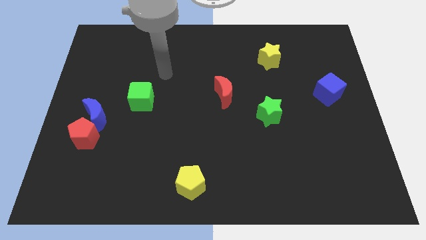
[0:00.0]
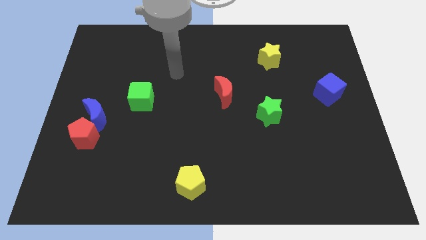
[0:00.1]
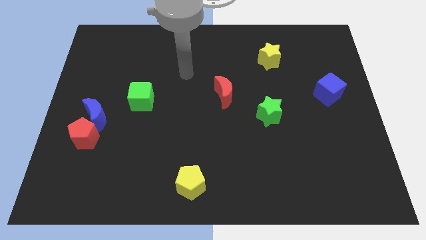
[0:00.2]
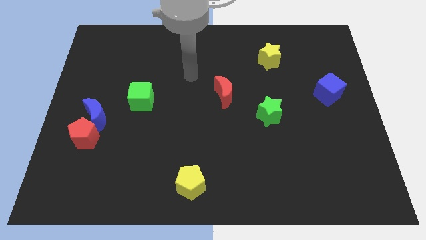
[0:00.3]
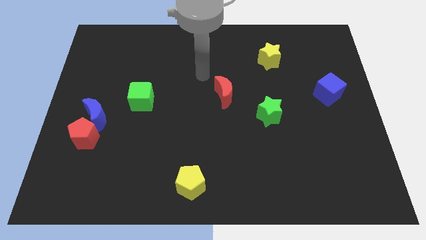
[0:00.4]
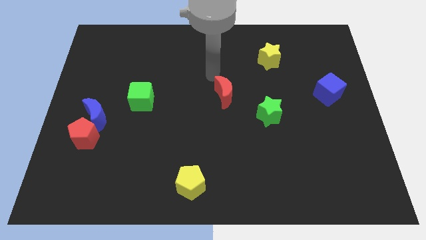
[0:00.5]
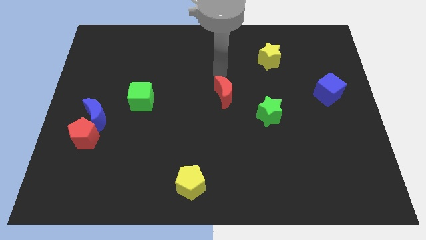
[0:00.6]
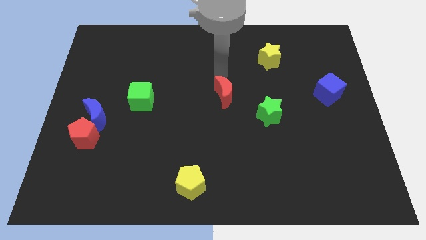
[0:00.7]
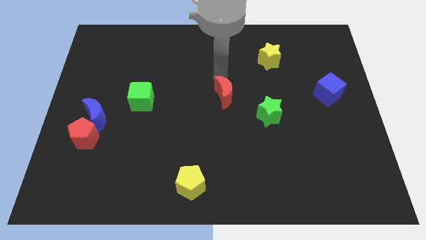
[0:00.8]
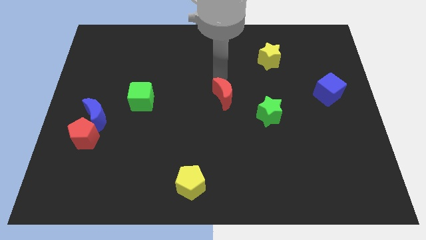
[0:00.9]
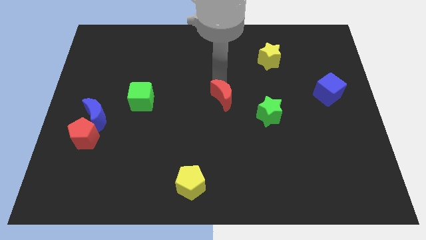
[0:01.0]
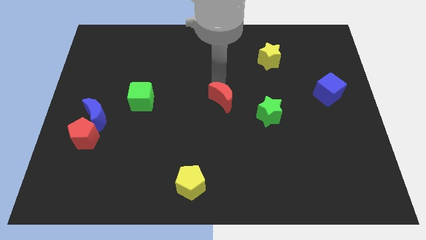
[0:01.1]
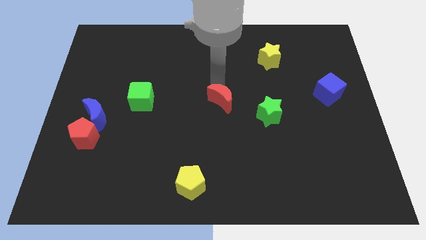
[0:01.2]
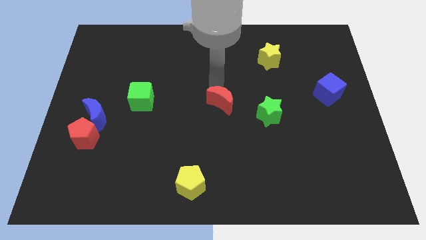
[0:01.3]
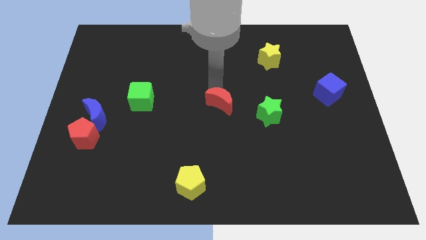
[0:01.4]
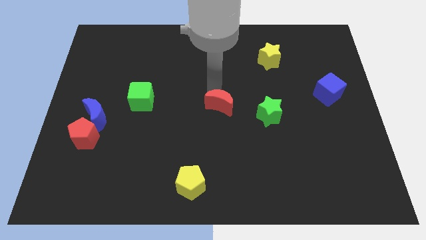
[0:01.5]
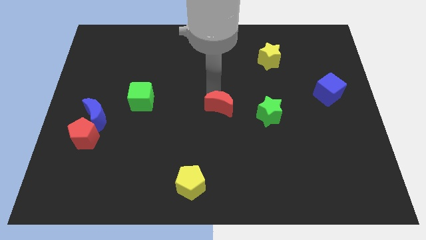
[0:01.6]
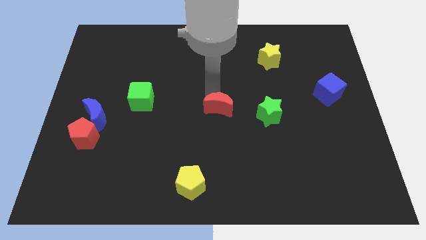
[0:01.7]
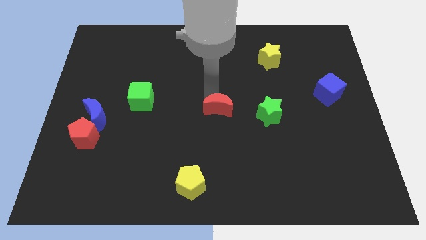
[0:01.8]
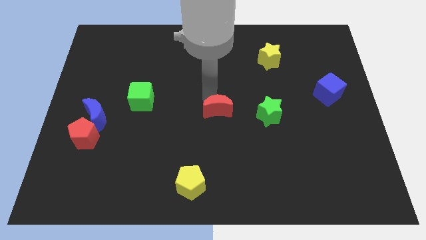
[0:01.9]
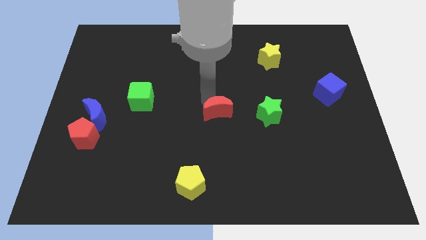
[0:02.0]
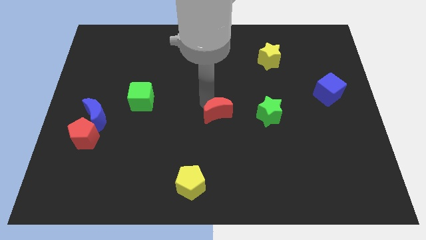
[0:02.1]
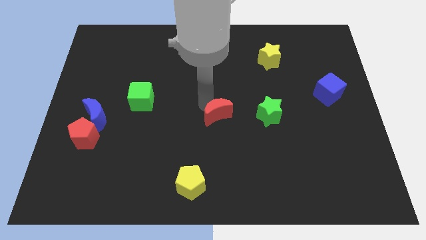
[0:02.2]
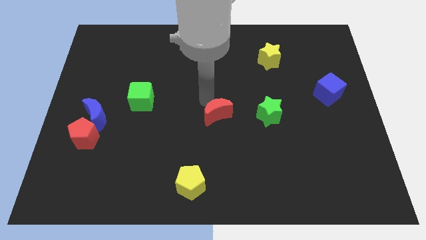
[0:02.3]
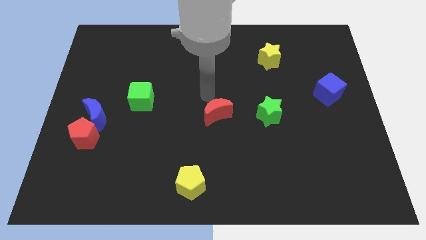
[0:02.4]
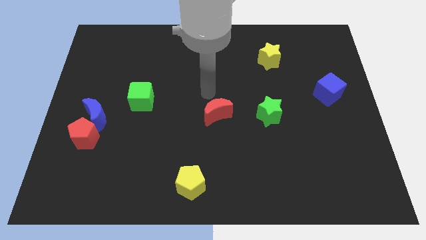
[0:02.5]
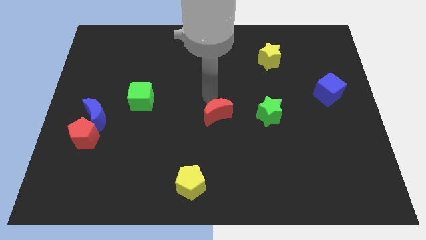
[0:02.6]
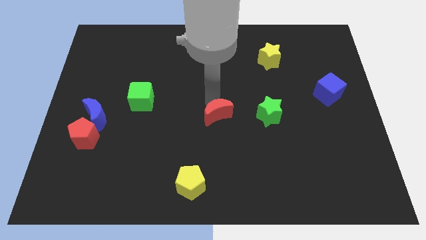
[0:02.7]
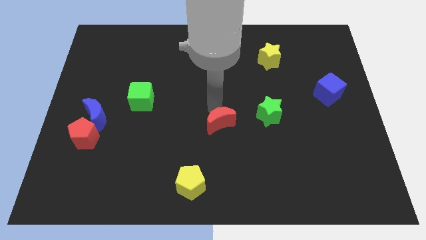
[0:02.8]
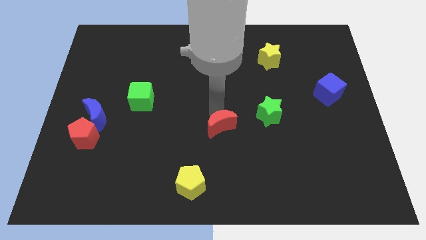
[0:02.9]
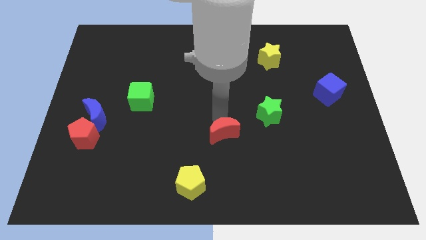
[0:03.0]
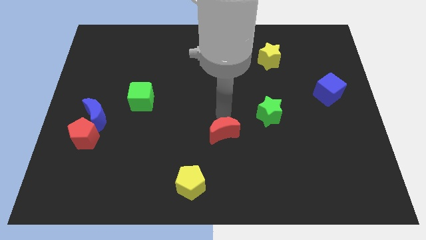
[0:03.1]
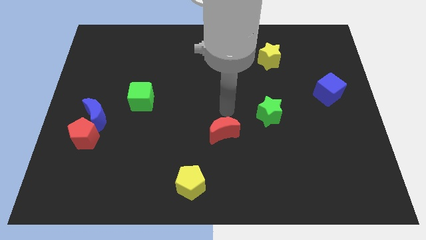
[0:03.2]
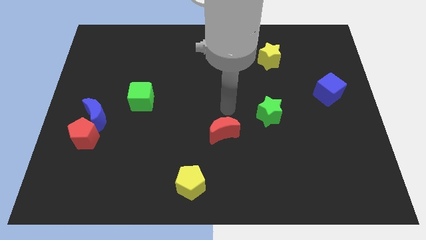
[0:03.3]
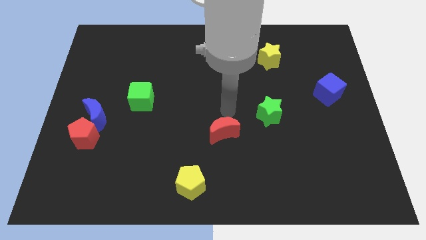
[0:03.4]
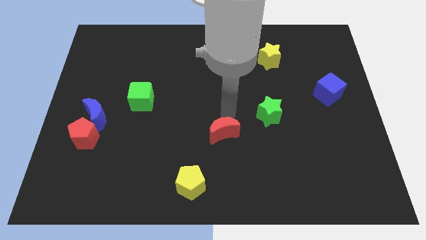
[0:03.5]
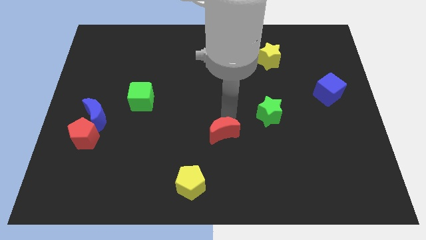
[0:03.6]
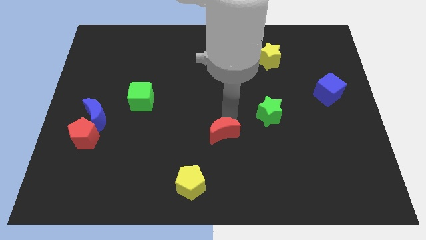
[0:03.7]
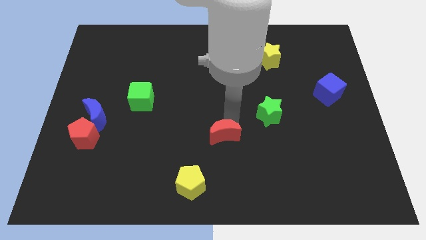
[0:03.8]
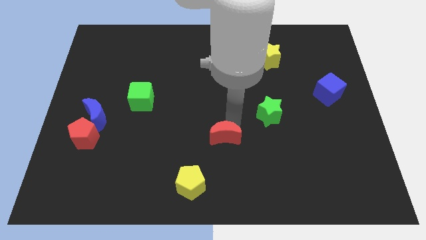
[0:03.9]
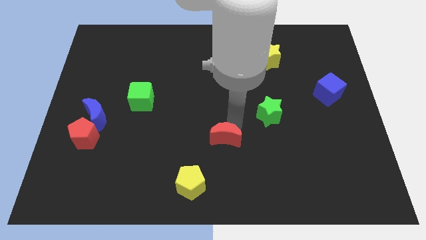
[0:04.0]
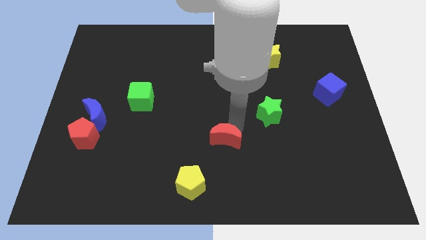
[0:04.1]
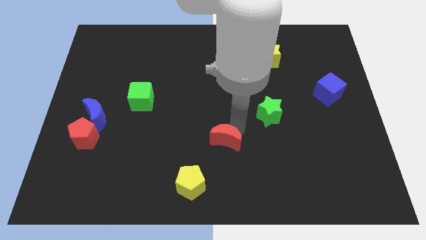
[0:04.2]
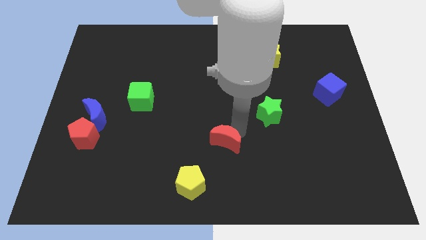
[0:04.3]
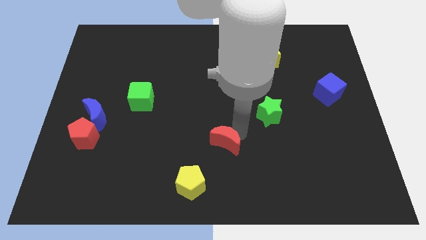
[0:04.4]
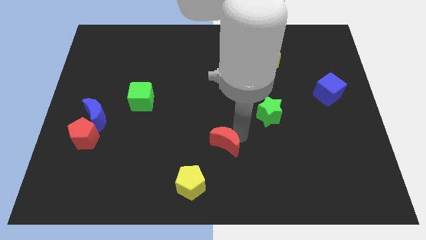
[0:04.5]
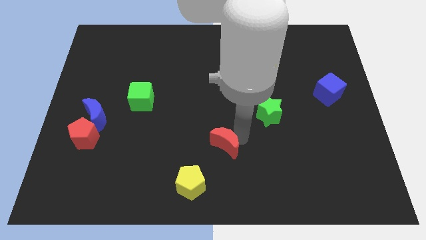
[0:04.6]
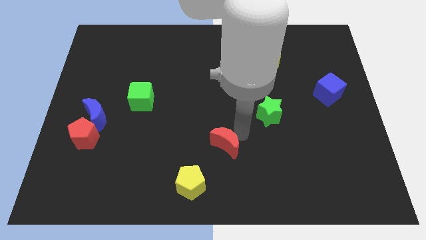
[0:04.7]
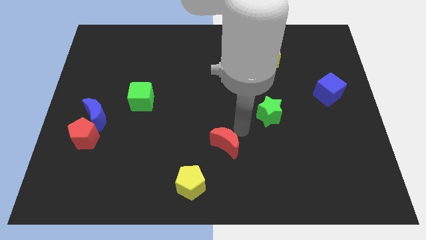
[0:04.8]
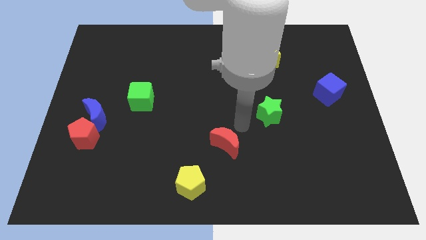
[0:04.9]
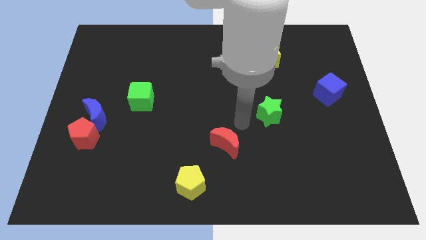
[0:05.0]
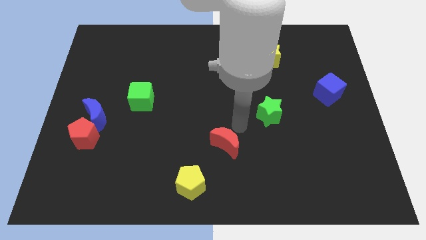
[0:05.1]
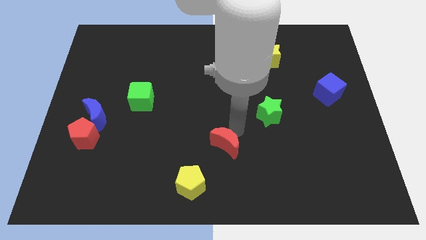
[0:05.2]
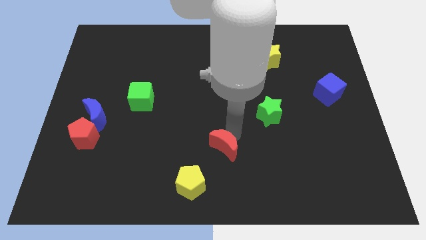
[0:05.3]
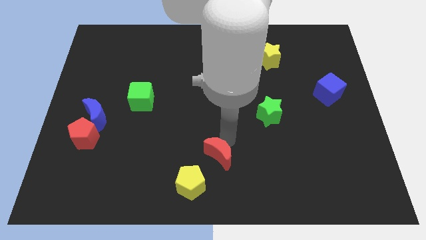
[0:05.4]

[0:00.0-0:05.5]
slide the red moon to the bottom
